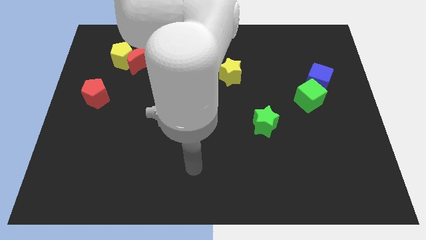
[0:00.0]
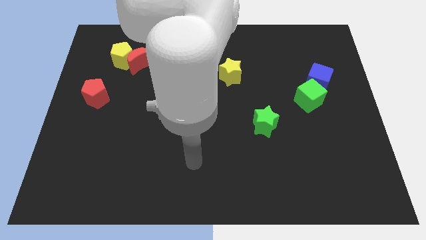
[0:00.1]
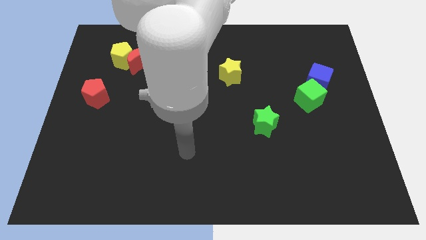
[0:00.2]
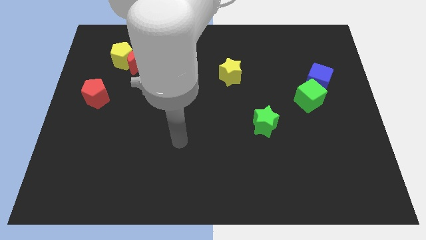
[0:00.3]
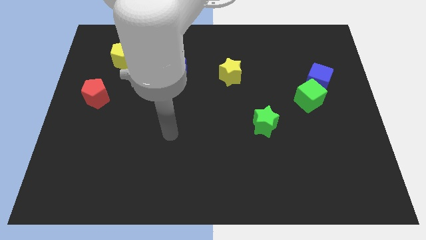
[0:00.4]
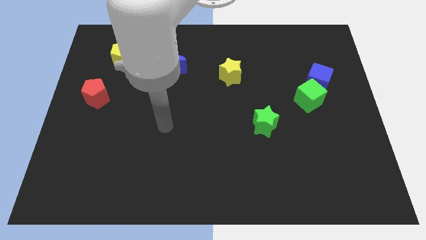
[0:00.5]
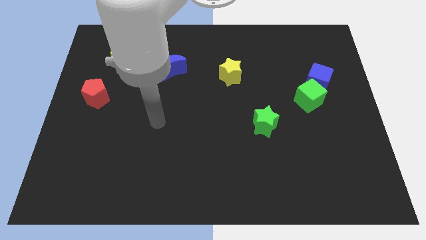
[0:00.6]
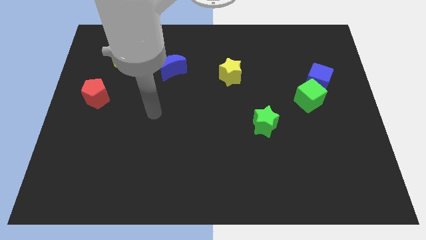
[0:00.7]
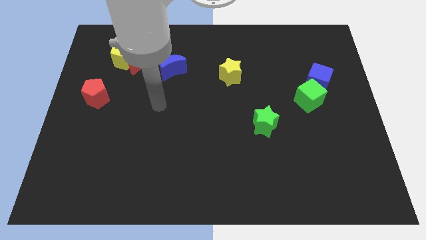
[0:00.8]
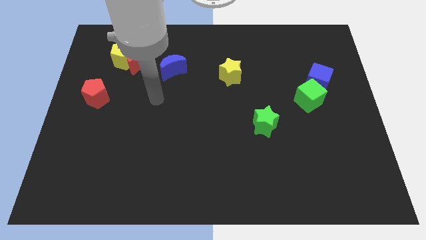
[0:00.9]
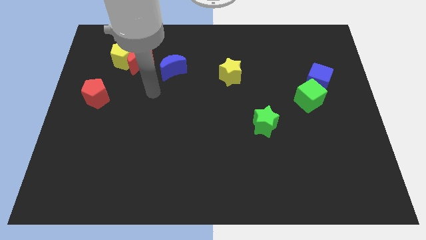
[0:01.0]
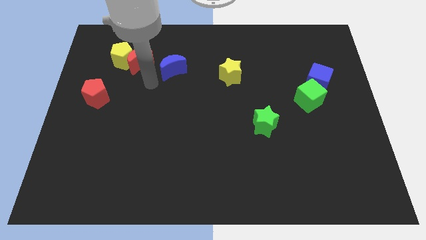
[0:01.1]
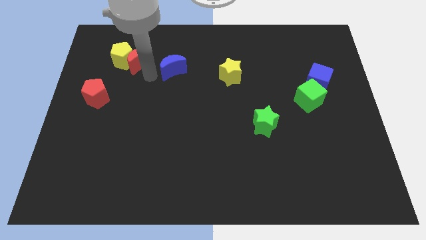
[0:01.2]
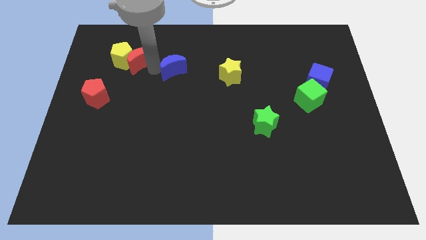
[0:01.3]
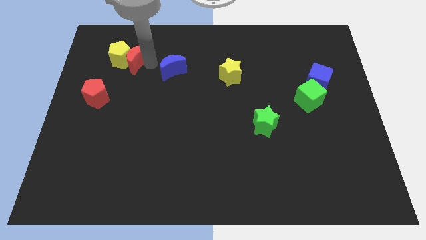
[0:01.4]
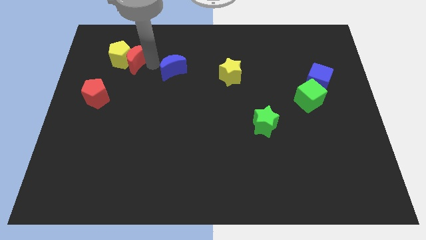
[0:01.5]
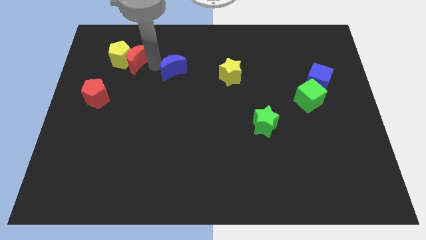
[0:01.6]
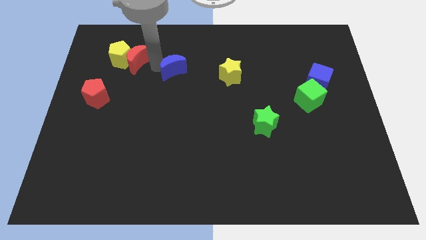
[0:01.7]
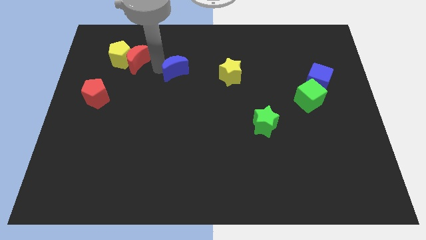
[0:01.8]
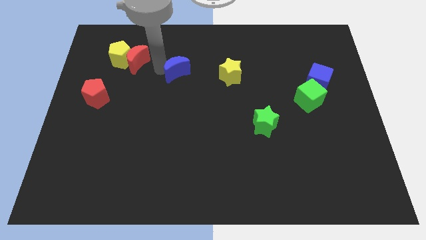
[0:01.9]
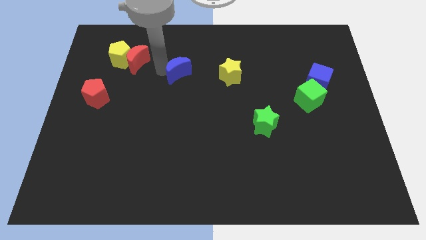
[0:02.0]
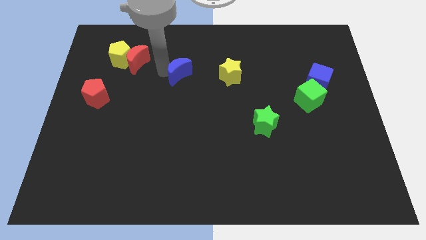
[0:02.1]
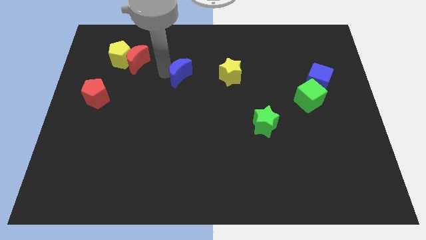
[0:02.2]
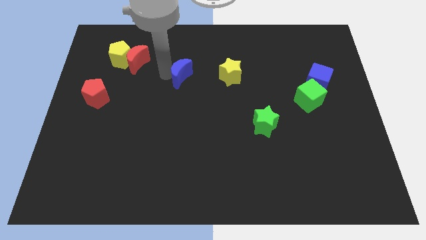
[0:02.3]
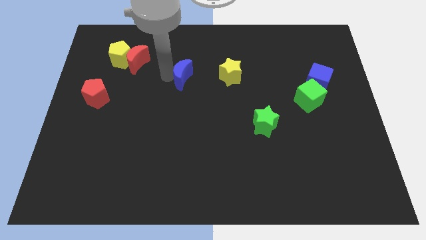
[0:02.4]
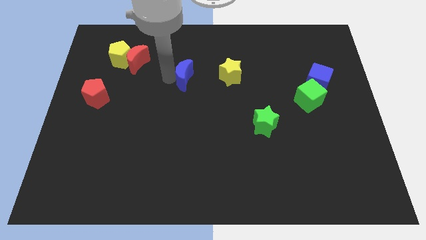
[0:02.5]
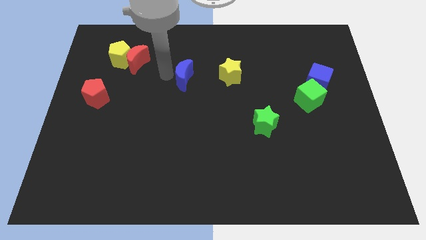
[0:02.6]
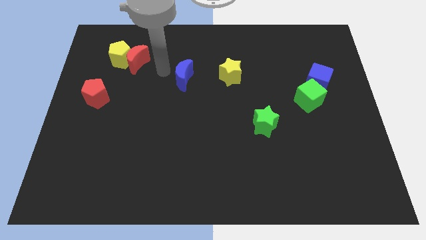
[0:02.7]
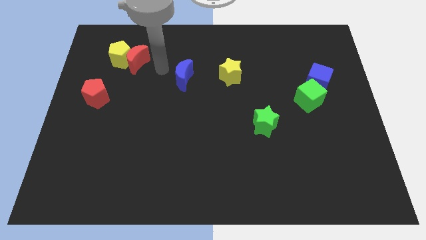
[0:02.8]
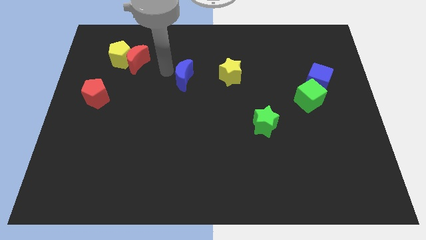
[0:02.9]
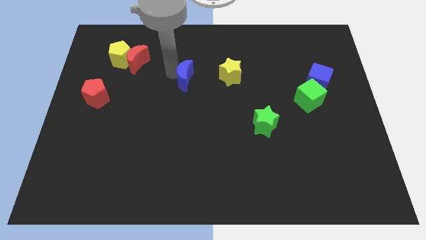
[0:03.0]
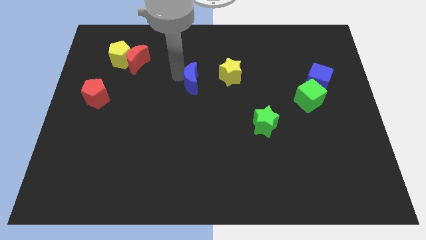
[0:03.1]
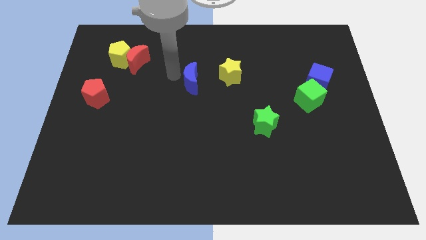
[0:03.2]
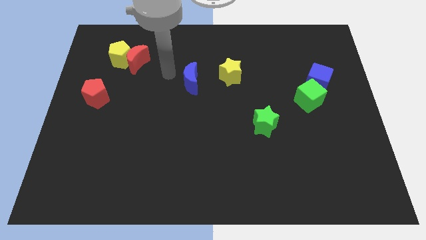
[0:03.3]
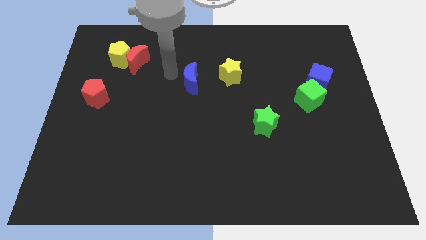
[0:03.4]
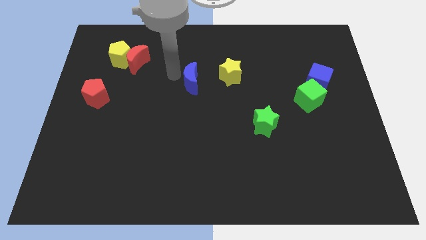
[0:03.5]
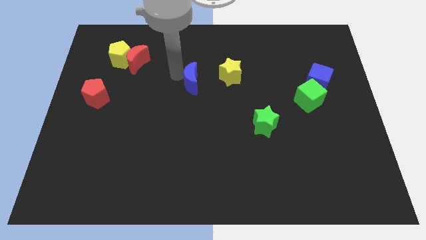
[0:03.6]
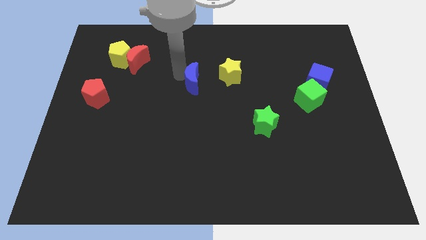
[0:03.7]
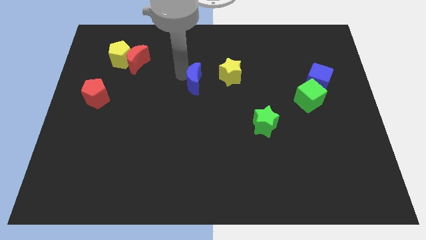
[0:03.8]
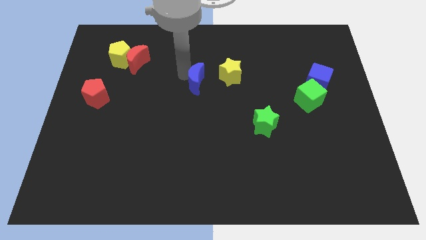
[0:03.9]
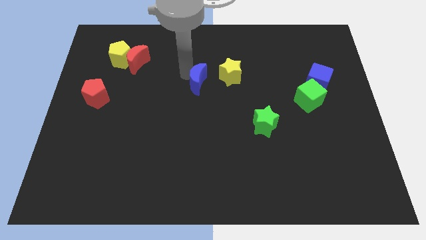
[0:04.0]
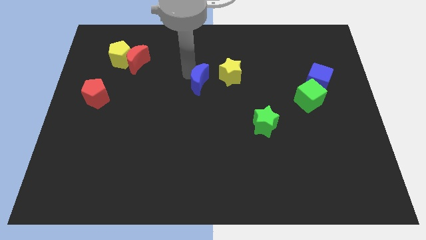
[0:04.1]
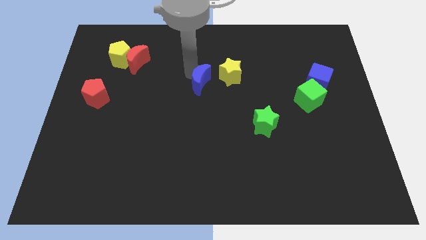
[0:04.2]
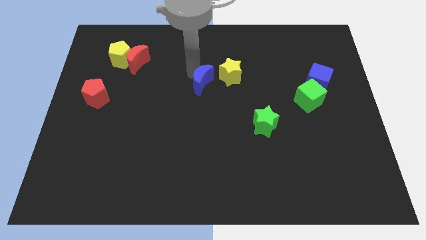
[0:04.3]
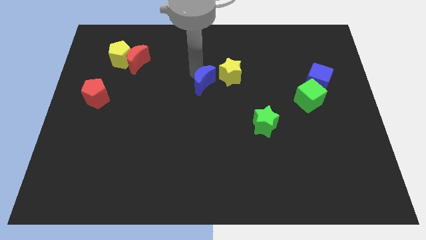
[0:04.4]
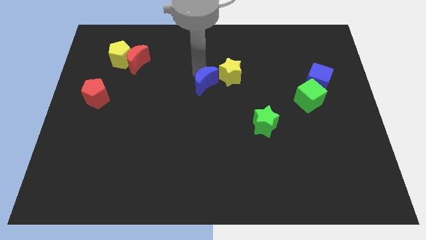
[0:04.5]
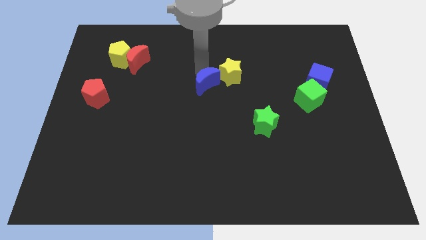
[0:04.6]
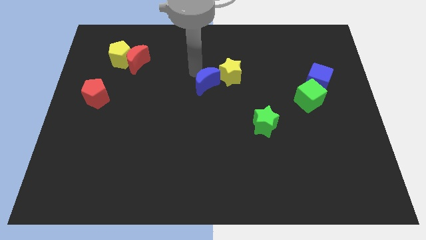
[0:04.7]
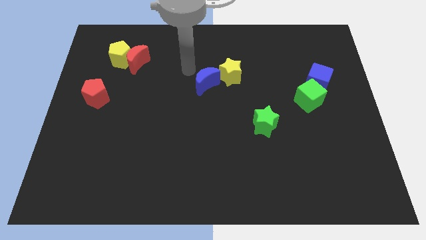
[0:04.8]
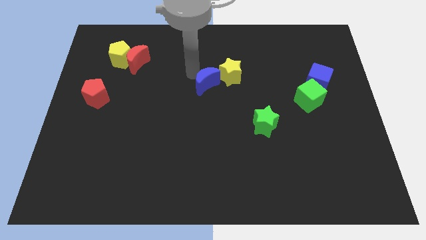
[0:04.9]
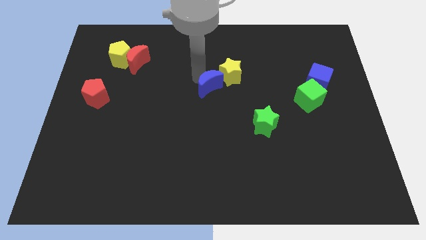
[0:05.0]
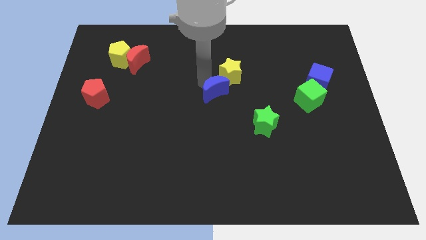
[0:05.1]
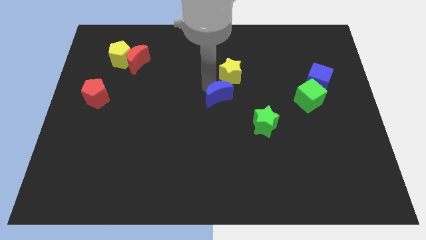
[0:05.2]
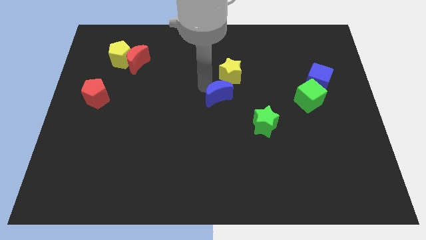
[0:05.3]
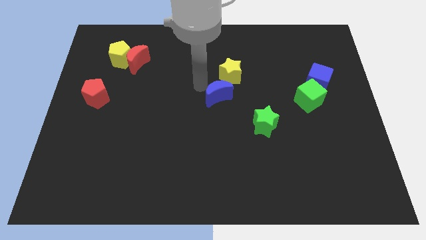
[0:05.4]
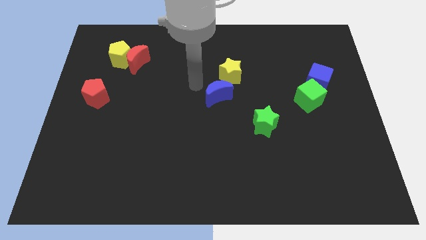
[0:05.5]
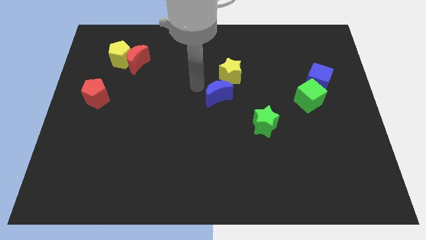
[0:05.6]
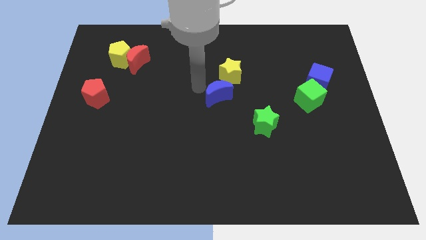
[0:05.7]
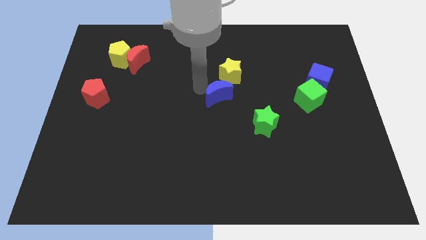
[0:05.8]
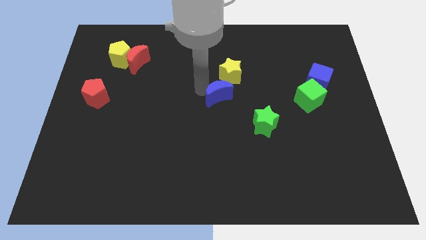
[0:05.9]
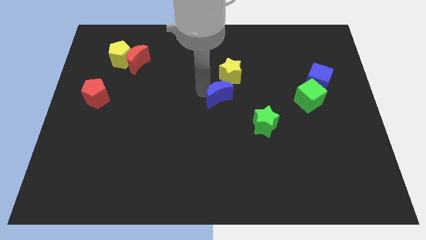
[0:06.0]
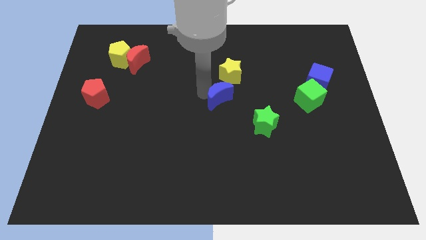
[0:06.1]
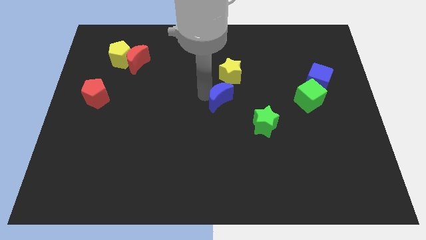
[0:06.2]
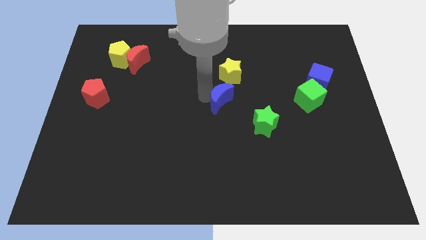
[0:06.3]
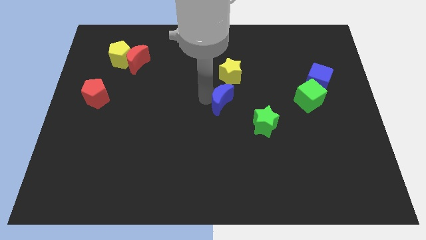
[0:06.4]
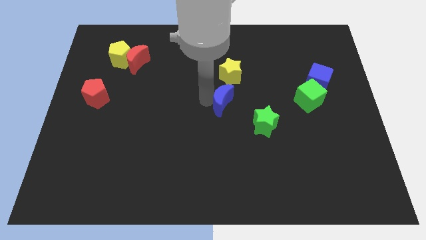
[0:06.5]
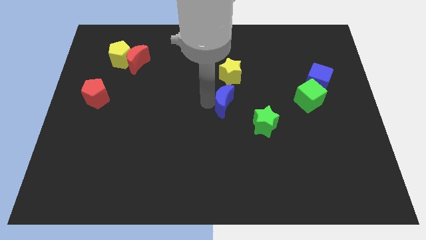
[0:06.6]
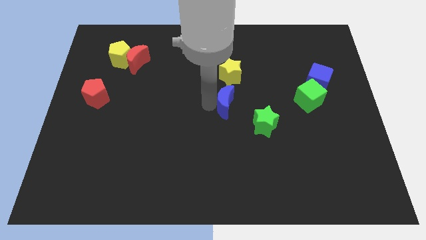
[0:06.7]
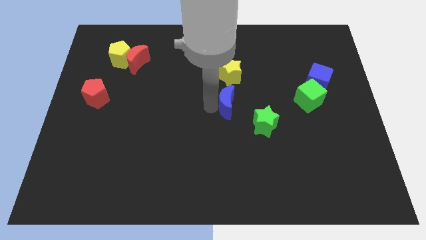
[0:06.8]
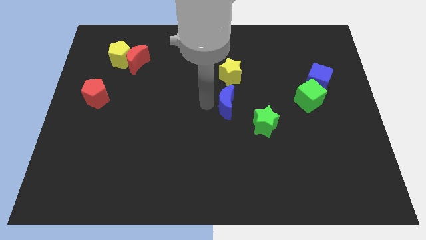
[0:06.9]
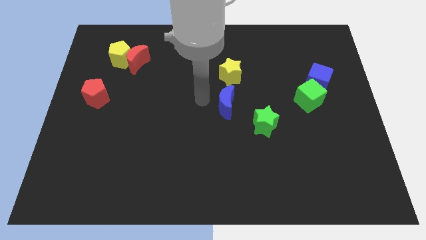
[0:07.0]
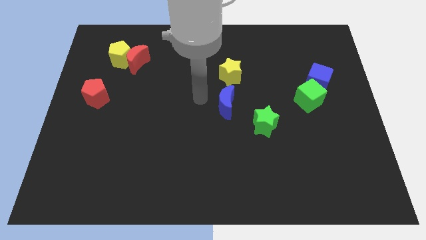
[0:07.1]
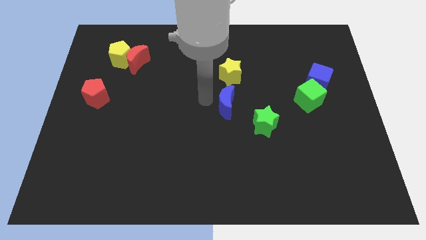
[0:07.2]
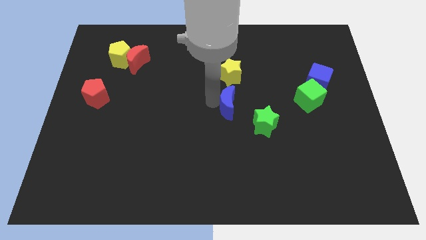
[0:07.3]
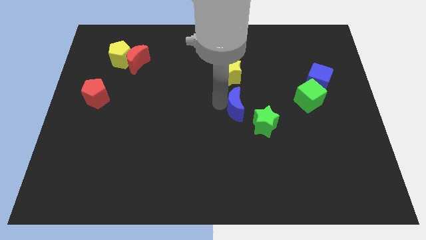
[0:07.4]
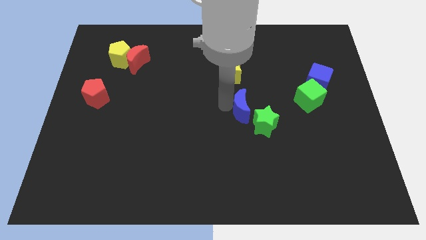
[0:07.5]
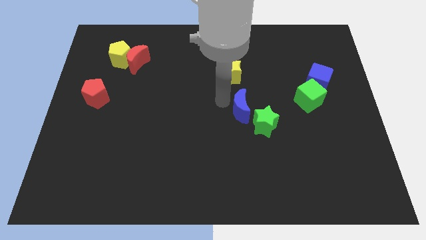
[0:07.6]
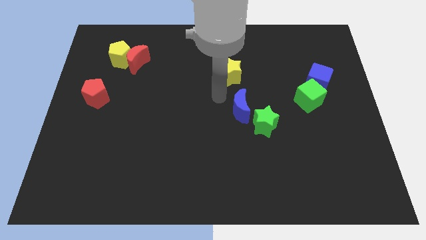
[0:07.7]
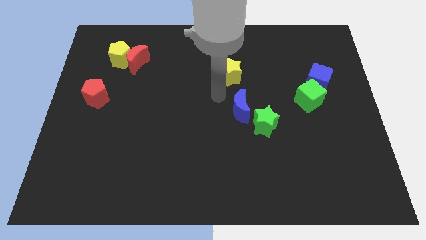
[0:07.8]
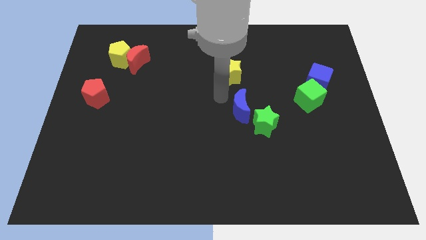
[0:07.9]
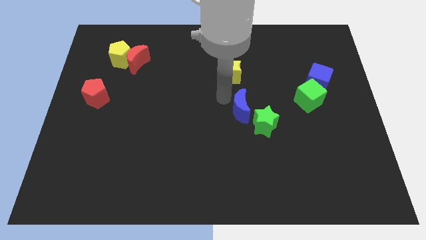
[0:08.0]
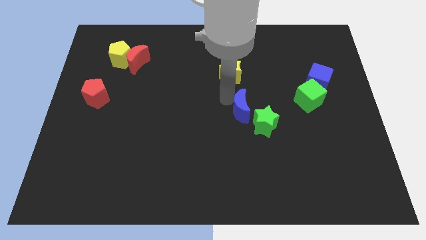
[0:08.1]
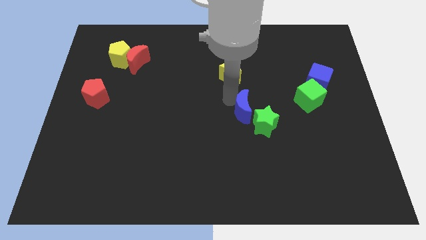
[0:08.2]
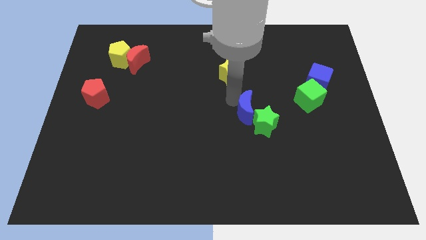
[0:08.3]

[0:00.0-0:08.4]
push the blue moon close to the green star
